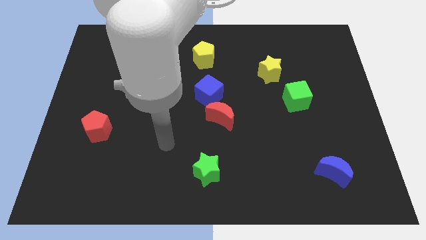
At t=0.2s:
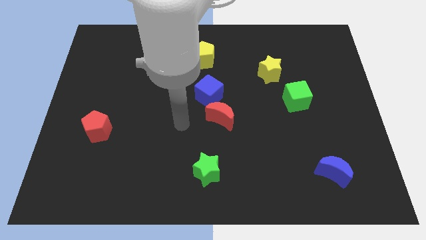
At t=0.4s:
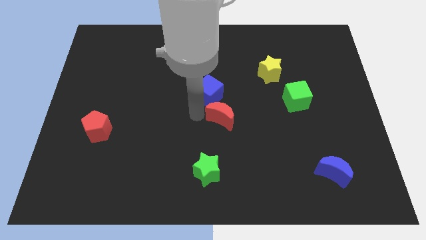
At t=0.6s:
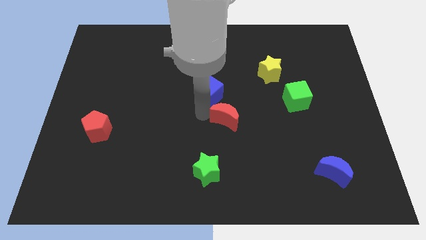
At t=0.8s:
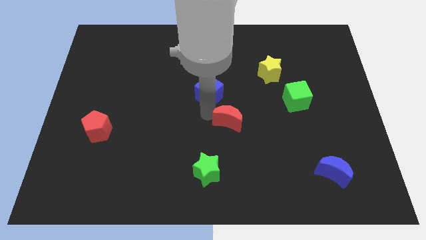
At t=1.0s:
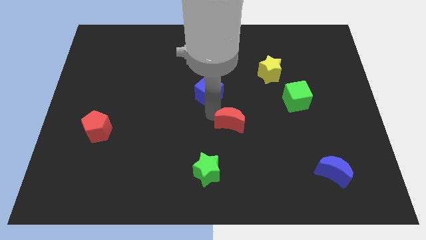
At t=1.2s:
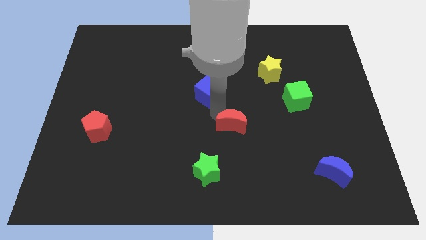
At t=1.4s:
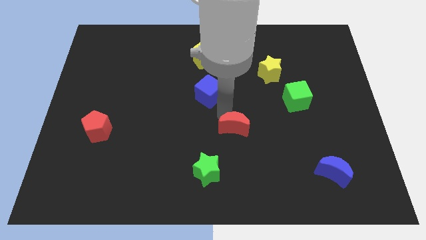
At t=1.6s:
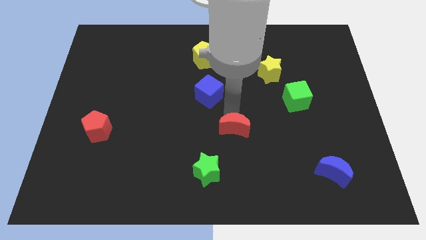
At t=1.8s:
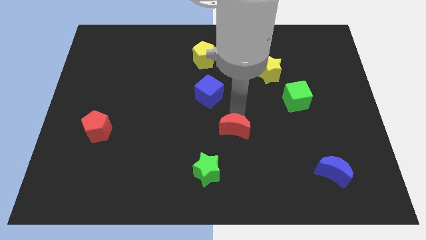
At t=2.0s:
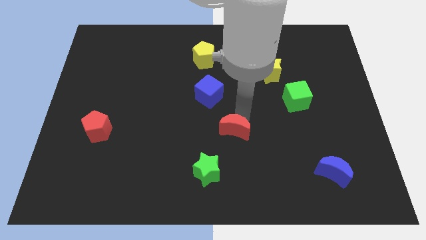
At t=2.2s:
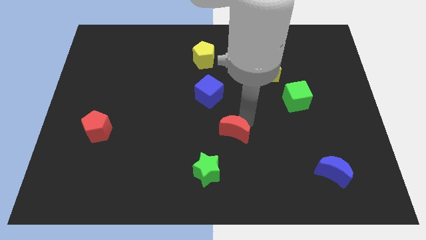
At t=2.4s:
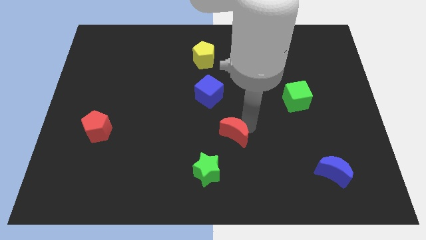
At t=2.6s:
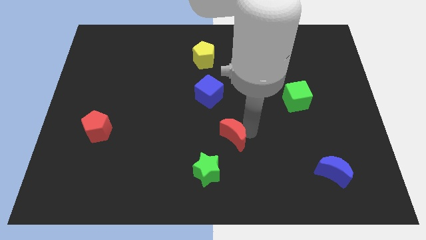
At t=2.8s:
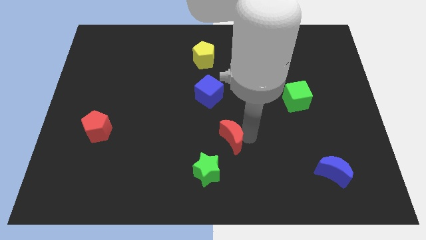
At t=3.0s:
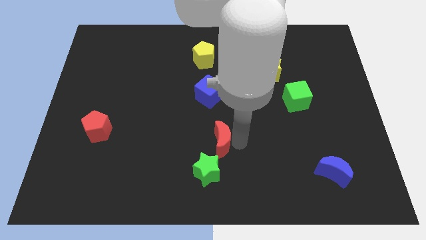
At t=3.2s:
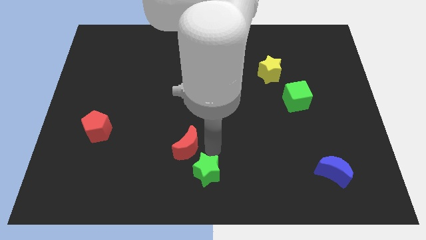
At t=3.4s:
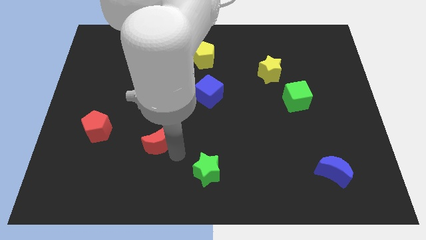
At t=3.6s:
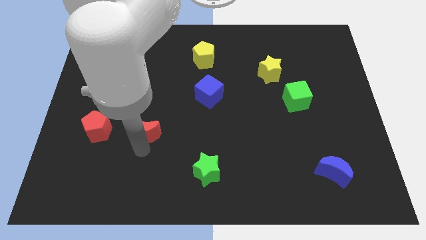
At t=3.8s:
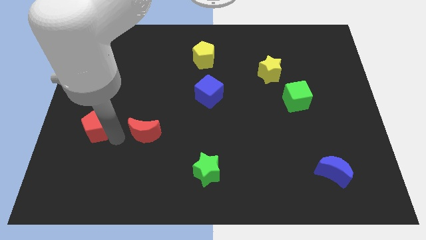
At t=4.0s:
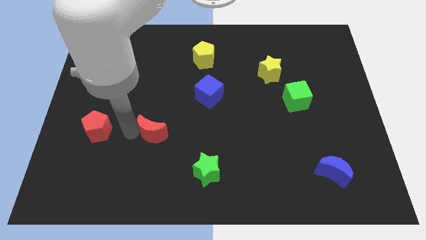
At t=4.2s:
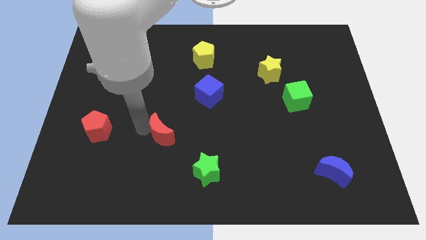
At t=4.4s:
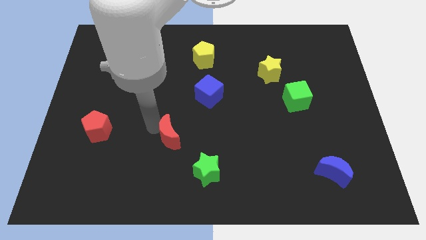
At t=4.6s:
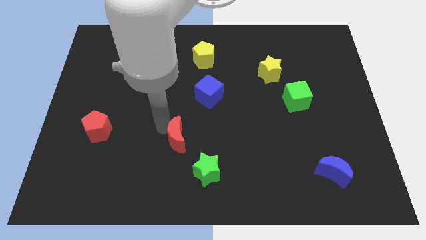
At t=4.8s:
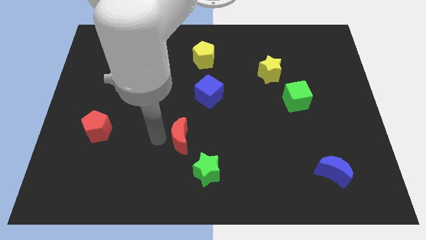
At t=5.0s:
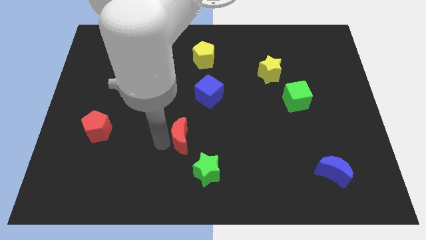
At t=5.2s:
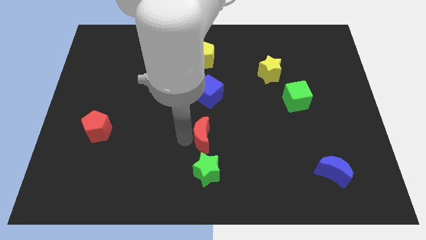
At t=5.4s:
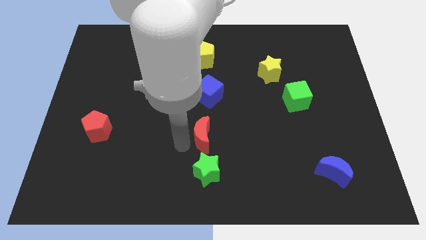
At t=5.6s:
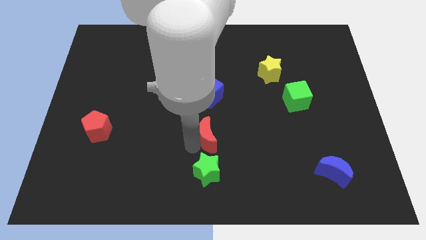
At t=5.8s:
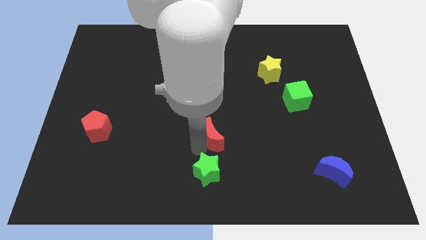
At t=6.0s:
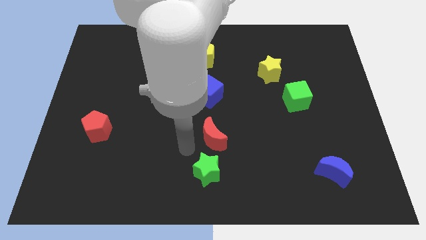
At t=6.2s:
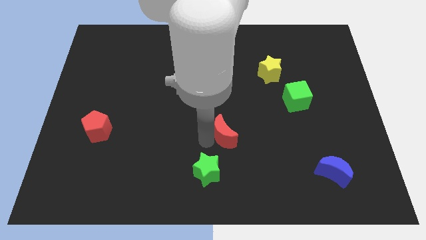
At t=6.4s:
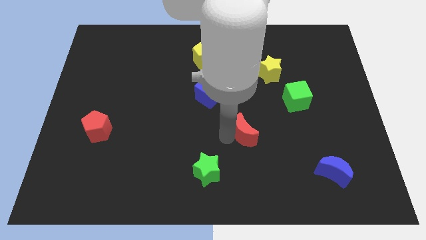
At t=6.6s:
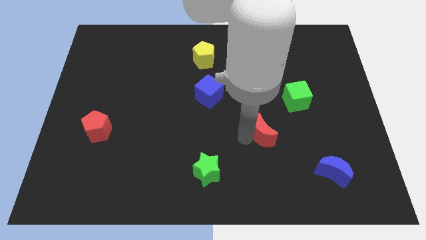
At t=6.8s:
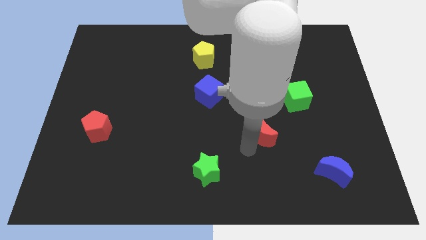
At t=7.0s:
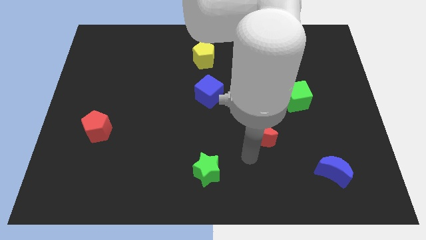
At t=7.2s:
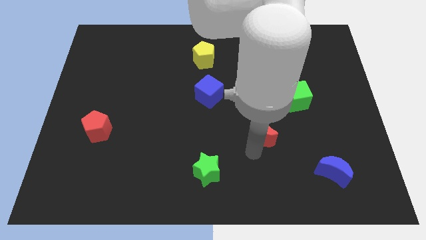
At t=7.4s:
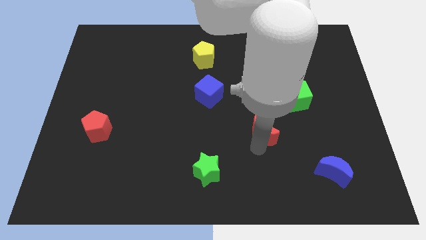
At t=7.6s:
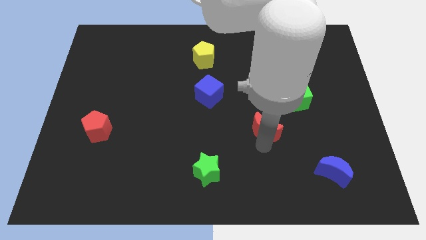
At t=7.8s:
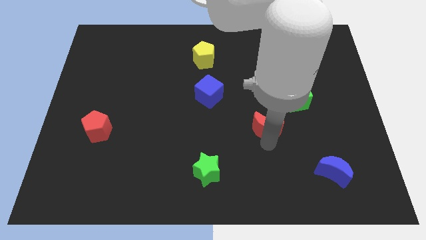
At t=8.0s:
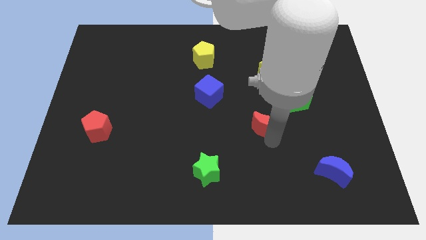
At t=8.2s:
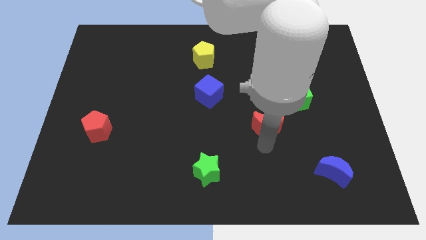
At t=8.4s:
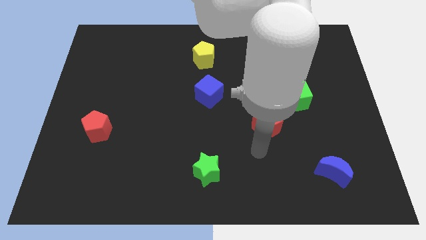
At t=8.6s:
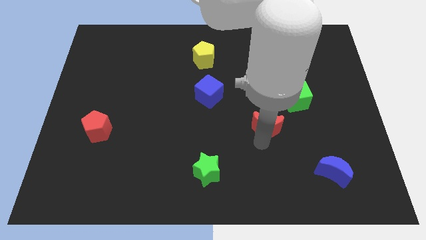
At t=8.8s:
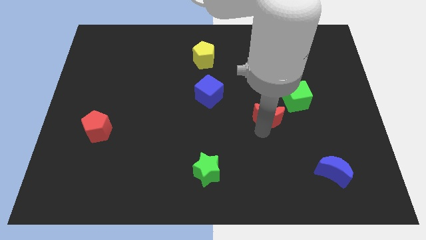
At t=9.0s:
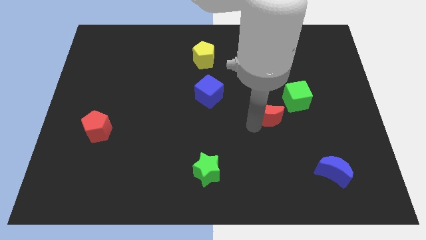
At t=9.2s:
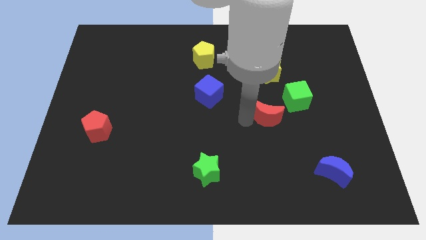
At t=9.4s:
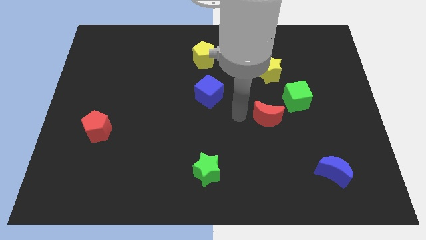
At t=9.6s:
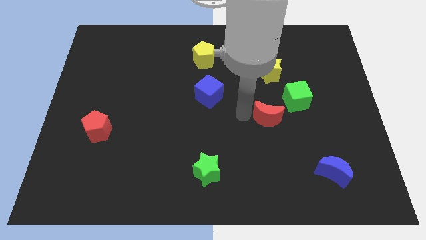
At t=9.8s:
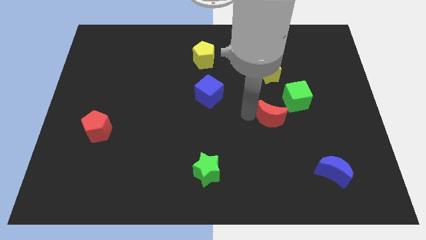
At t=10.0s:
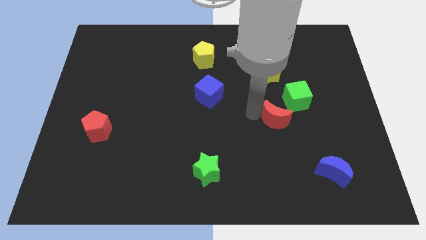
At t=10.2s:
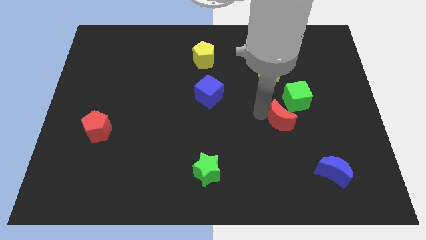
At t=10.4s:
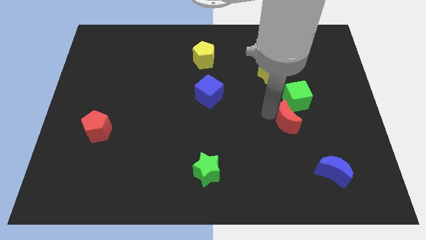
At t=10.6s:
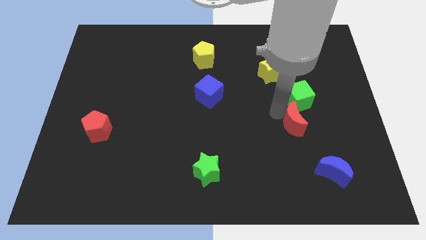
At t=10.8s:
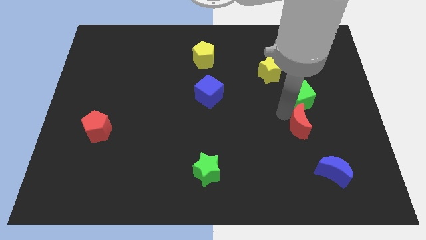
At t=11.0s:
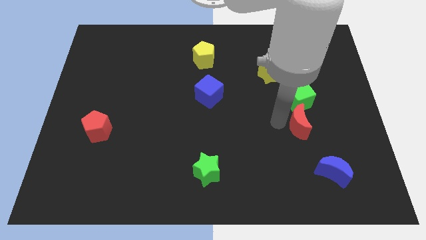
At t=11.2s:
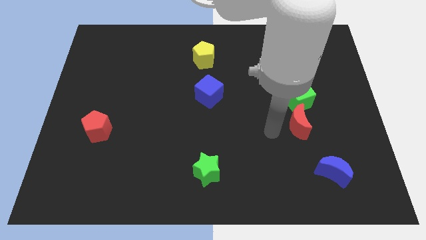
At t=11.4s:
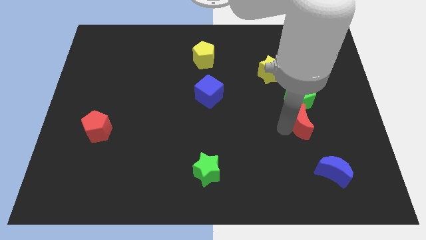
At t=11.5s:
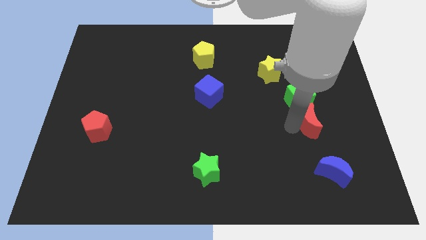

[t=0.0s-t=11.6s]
slide the red moon to the bottom right of the green cube

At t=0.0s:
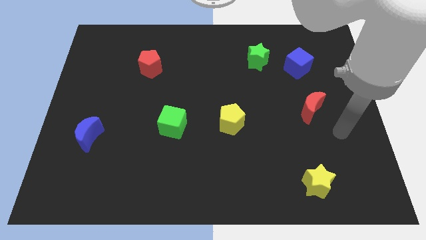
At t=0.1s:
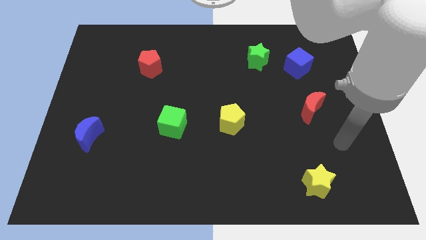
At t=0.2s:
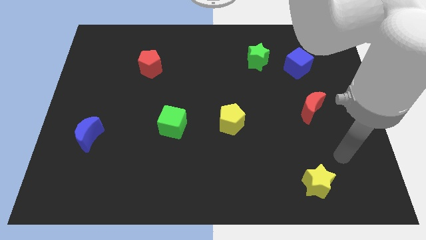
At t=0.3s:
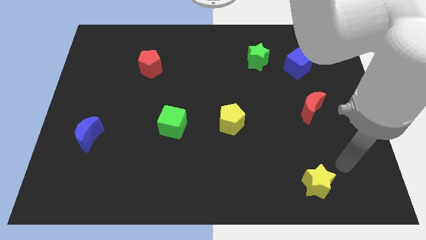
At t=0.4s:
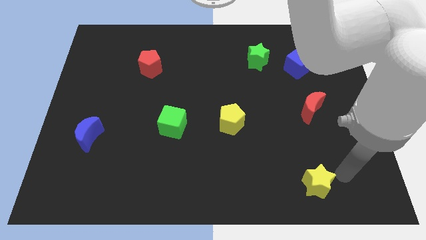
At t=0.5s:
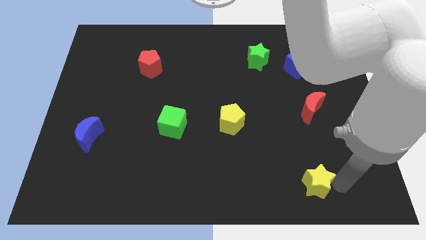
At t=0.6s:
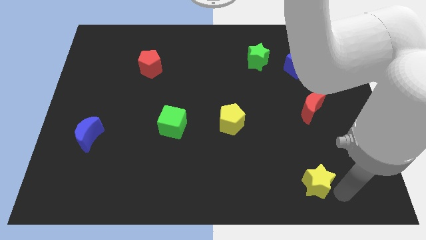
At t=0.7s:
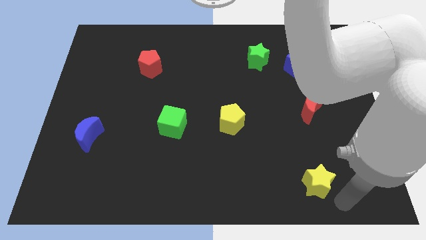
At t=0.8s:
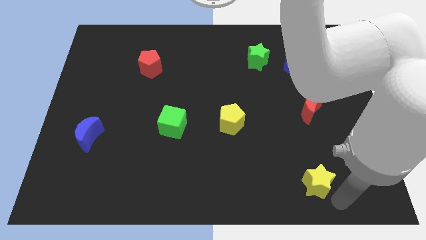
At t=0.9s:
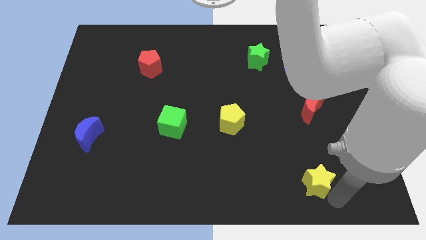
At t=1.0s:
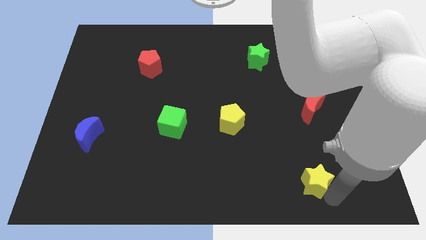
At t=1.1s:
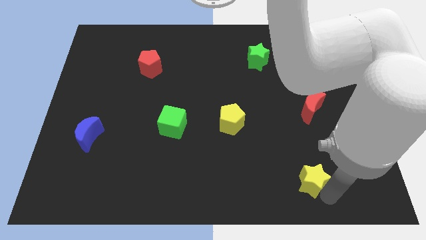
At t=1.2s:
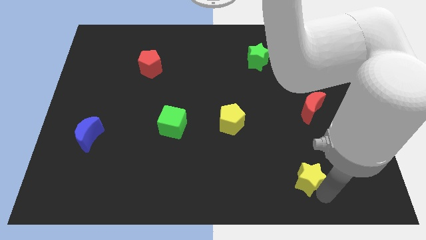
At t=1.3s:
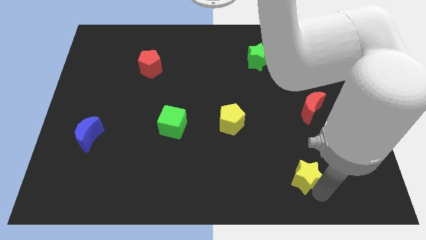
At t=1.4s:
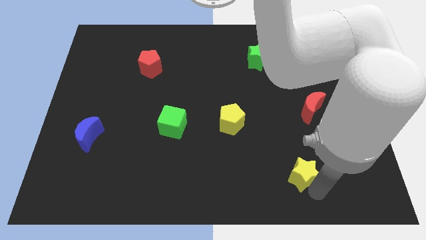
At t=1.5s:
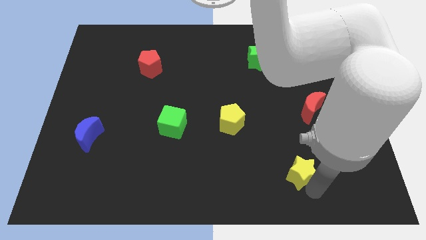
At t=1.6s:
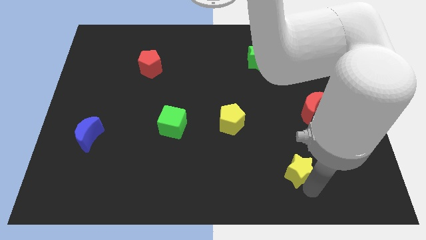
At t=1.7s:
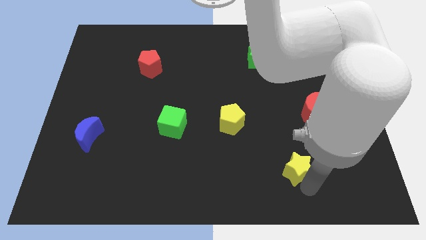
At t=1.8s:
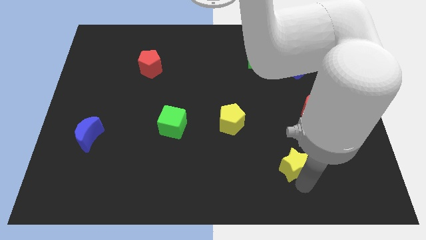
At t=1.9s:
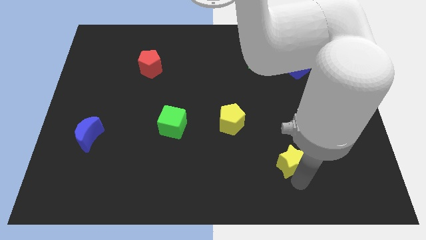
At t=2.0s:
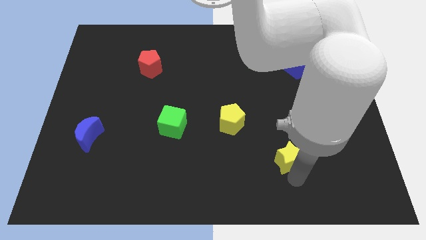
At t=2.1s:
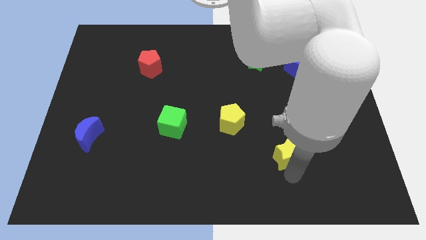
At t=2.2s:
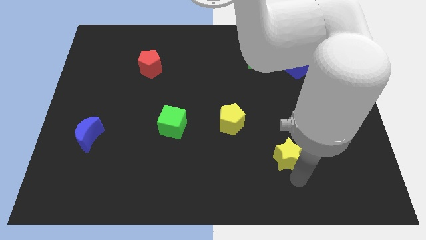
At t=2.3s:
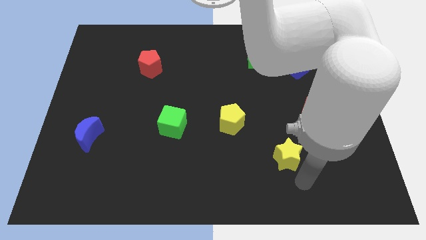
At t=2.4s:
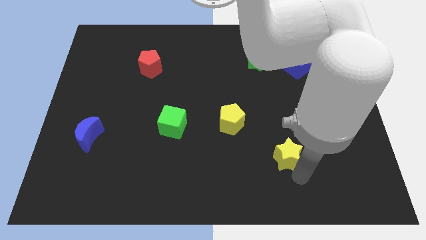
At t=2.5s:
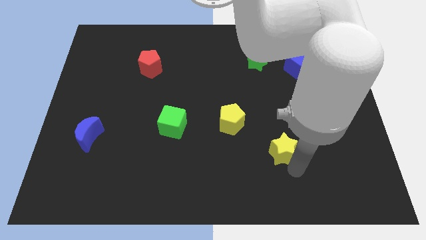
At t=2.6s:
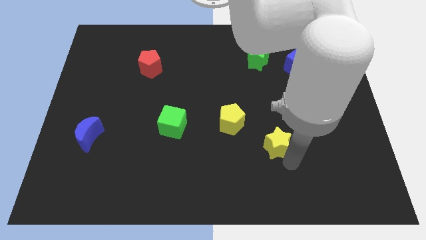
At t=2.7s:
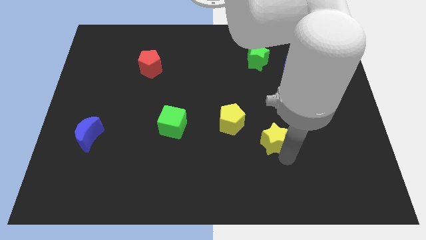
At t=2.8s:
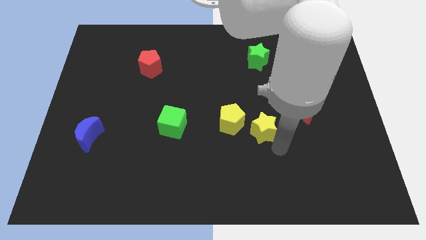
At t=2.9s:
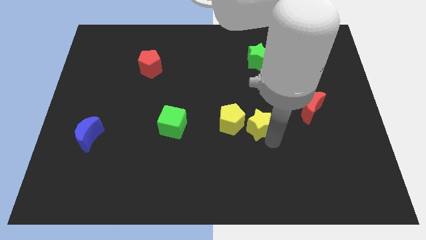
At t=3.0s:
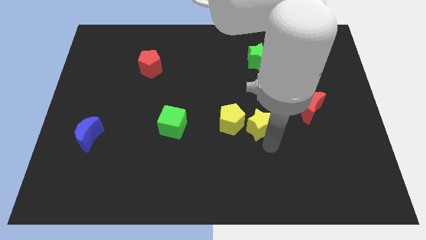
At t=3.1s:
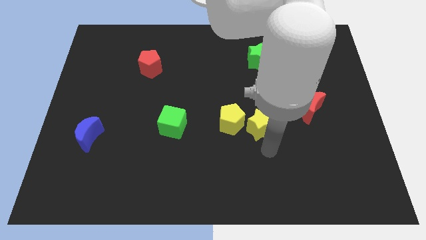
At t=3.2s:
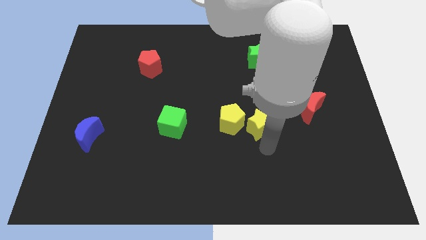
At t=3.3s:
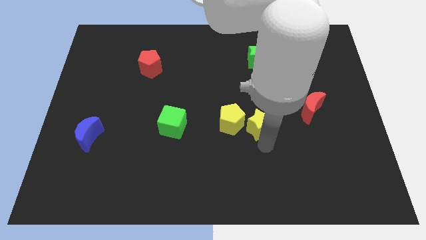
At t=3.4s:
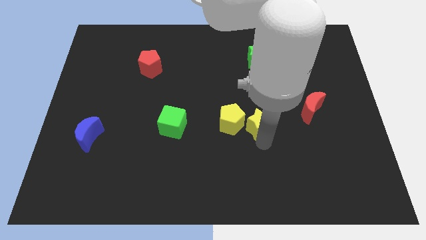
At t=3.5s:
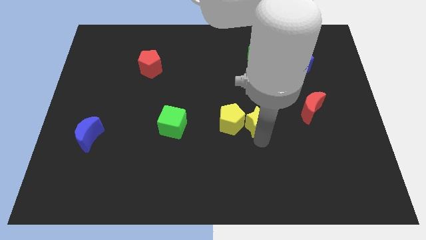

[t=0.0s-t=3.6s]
slide the yellow star to the top right of the yellow pentagon
